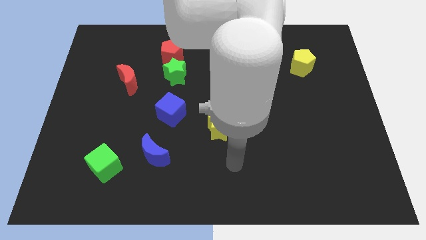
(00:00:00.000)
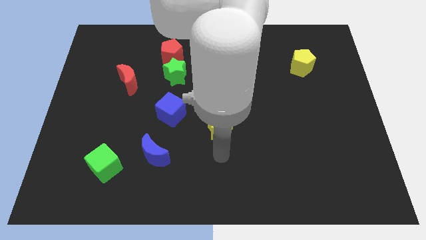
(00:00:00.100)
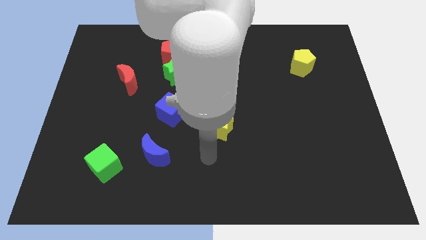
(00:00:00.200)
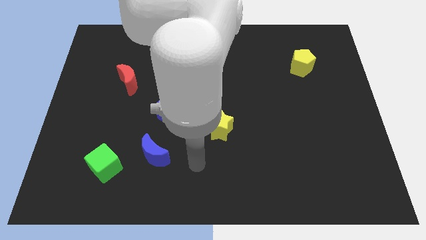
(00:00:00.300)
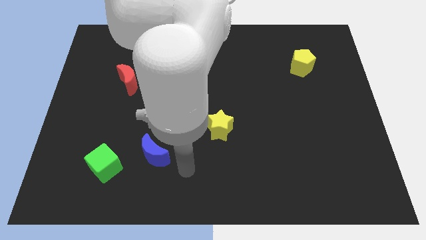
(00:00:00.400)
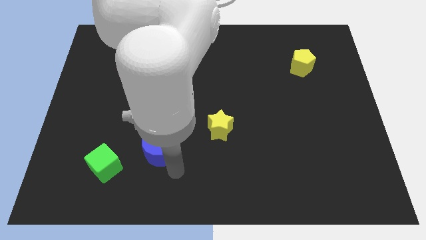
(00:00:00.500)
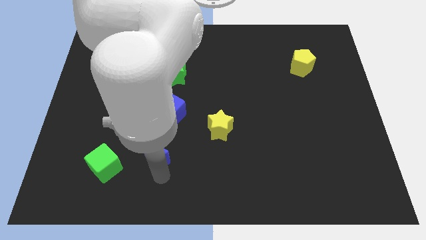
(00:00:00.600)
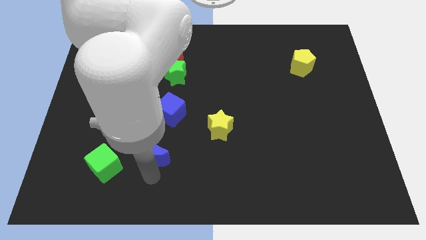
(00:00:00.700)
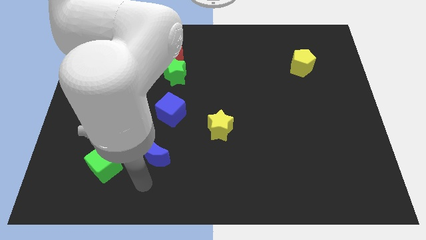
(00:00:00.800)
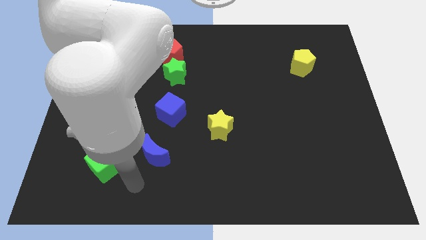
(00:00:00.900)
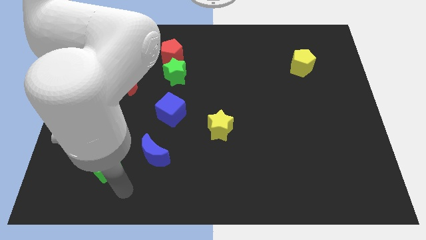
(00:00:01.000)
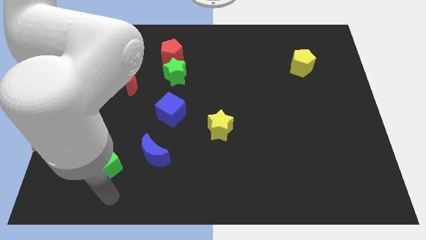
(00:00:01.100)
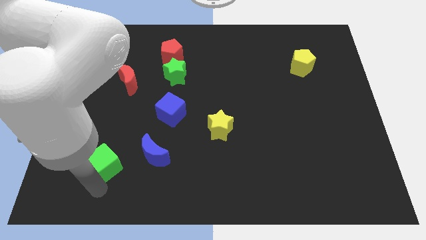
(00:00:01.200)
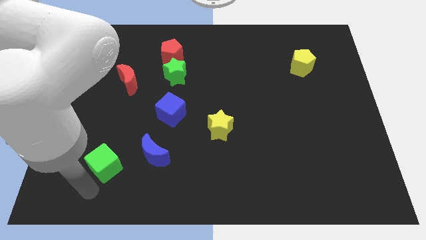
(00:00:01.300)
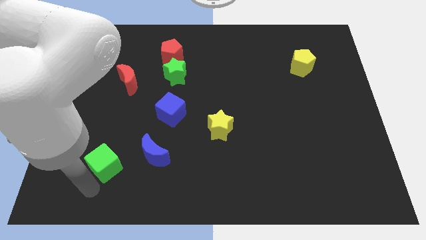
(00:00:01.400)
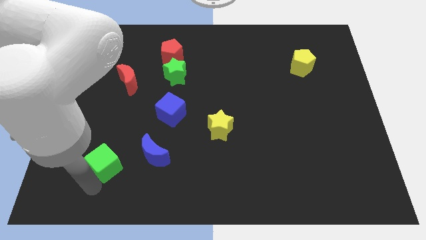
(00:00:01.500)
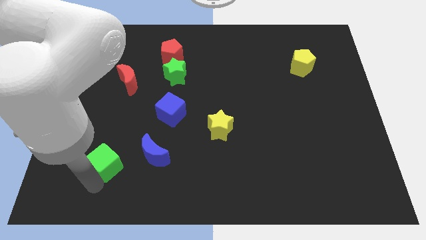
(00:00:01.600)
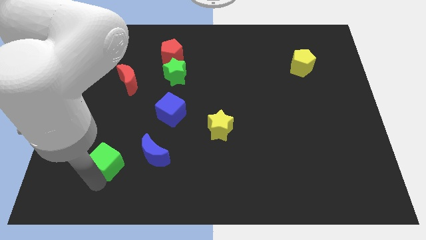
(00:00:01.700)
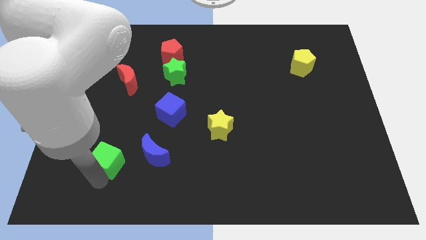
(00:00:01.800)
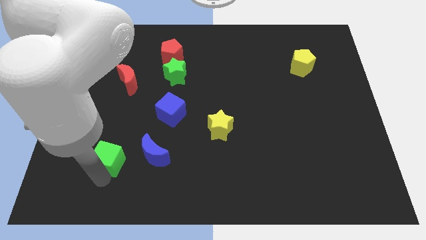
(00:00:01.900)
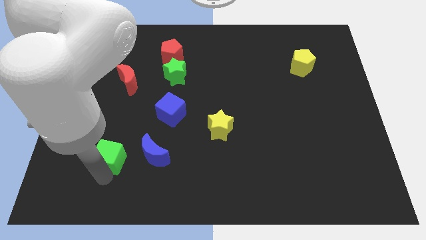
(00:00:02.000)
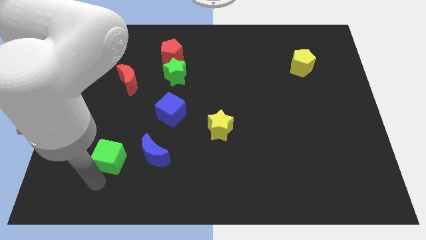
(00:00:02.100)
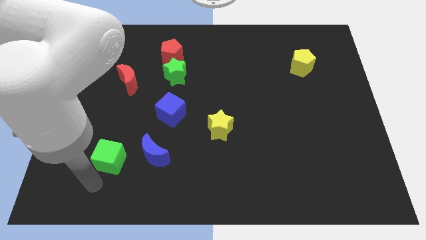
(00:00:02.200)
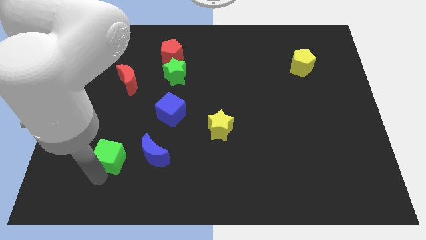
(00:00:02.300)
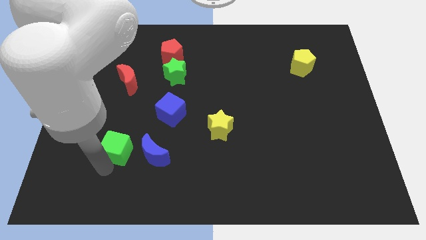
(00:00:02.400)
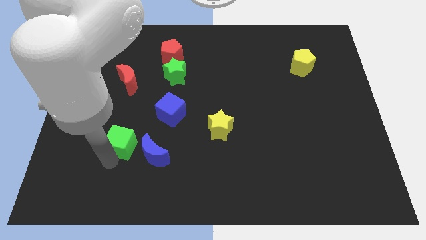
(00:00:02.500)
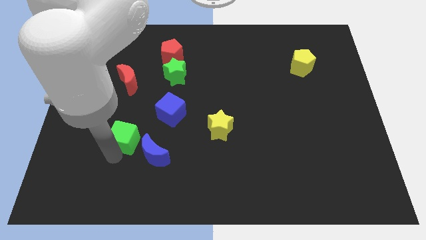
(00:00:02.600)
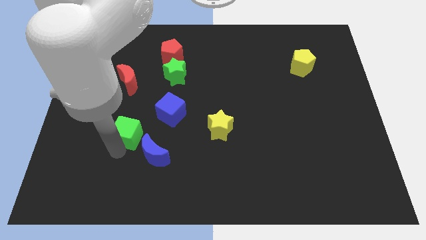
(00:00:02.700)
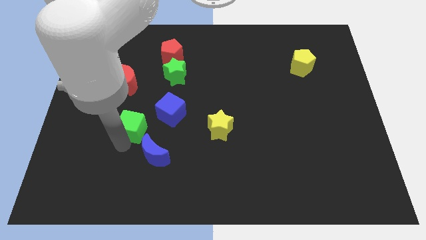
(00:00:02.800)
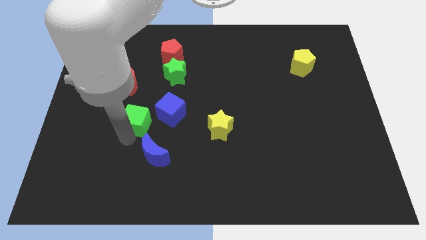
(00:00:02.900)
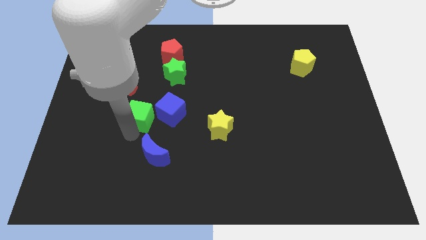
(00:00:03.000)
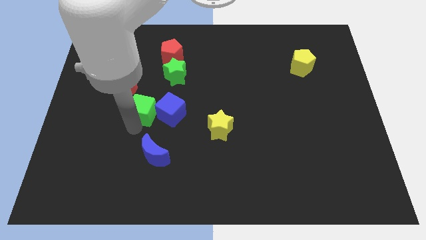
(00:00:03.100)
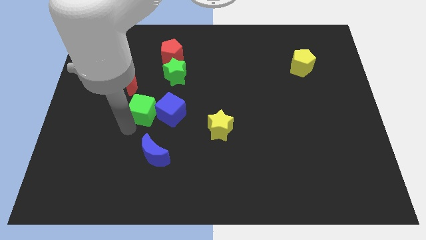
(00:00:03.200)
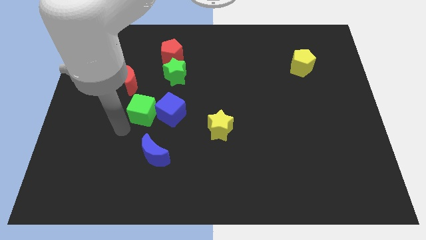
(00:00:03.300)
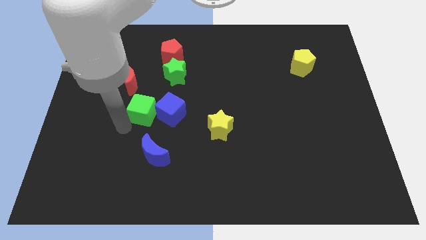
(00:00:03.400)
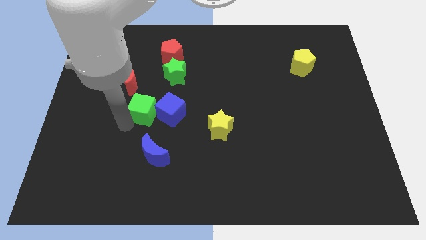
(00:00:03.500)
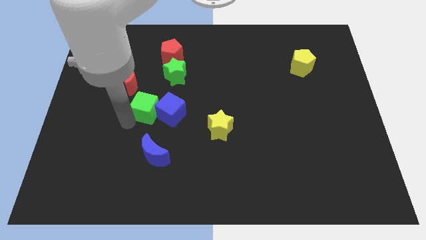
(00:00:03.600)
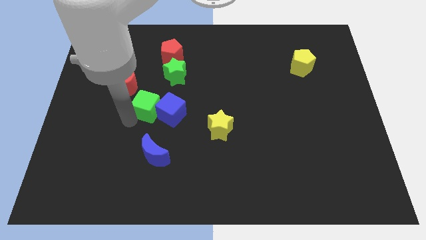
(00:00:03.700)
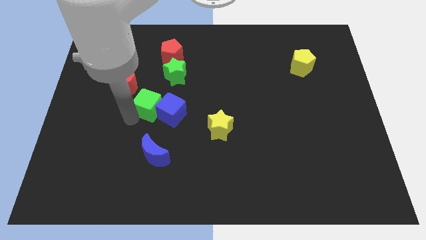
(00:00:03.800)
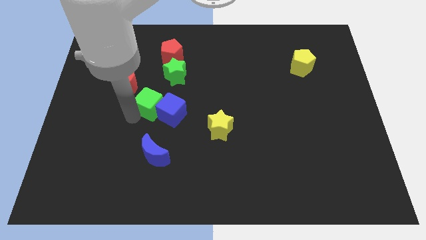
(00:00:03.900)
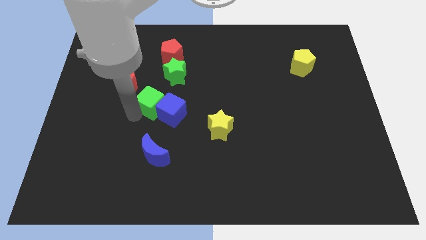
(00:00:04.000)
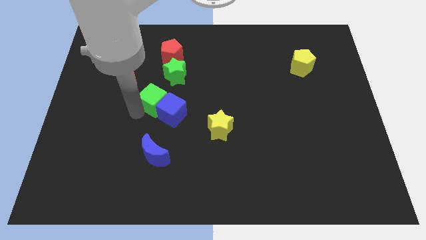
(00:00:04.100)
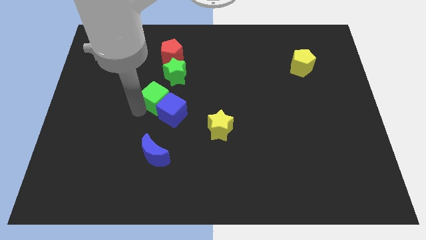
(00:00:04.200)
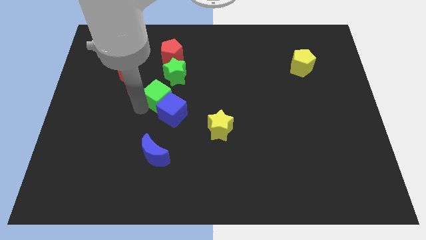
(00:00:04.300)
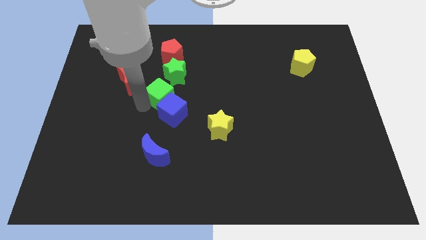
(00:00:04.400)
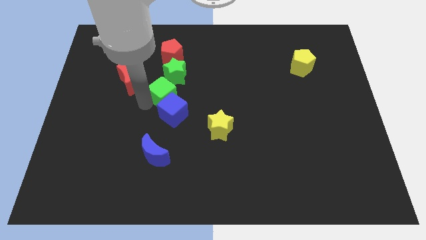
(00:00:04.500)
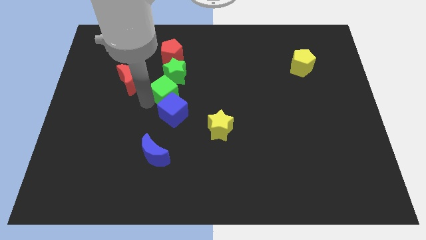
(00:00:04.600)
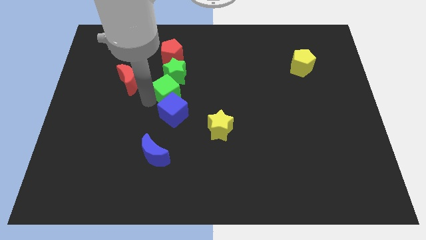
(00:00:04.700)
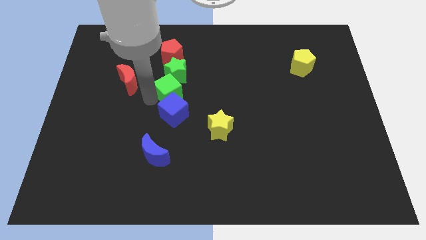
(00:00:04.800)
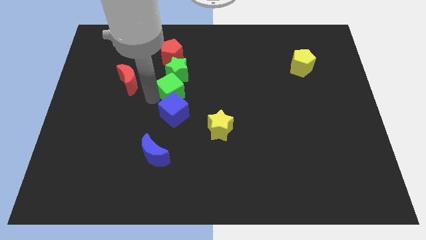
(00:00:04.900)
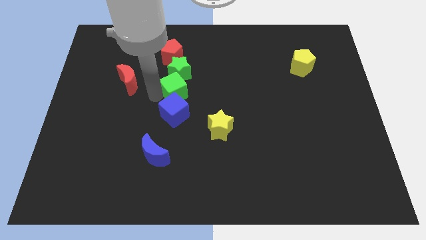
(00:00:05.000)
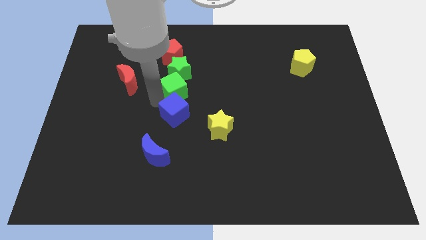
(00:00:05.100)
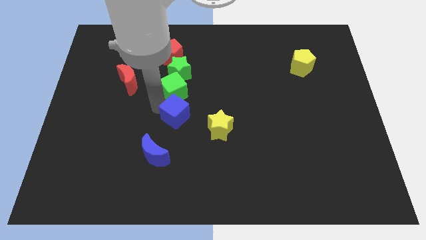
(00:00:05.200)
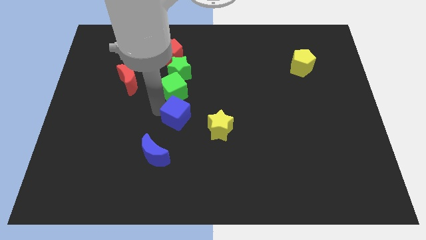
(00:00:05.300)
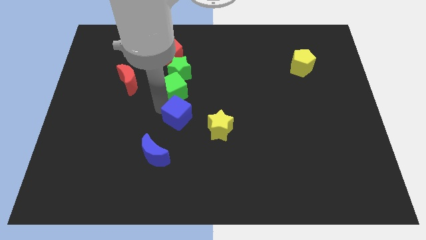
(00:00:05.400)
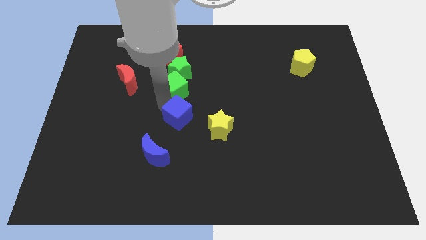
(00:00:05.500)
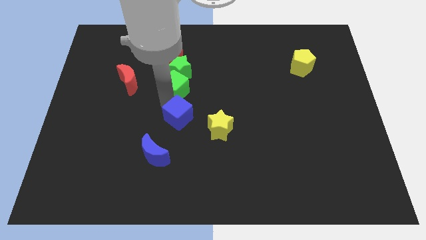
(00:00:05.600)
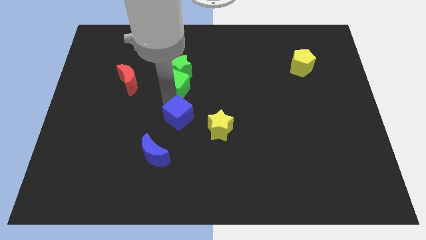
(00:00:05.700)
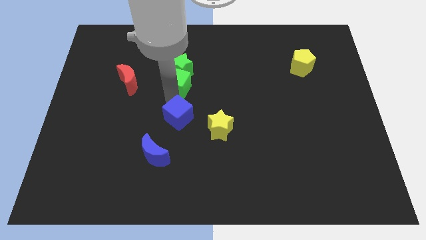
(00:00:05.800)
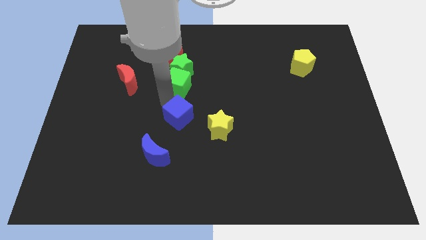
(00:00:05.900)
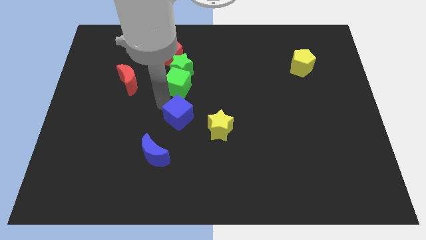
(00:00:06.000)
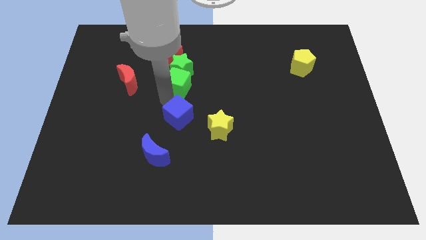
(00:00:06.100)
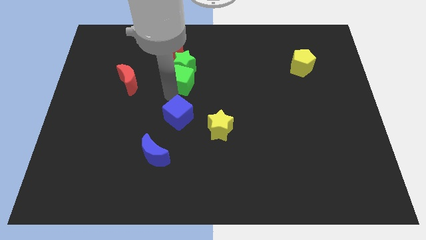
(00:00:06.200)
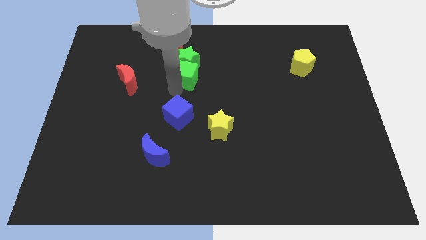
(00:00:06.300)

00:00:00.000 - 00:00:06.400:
put the green cube diagonally down and to the right of the red pentagon

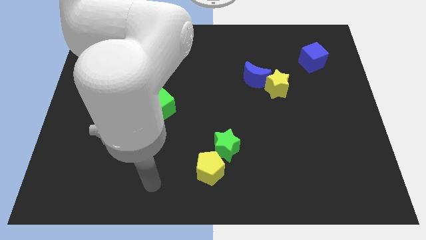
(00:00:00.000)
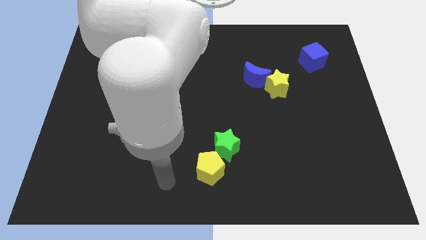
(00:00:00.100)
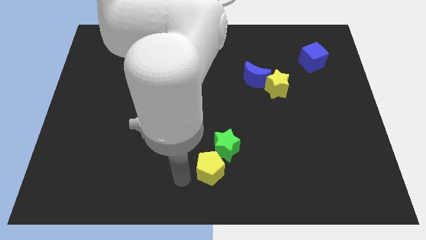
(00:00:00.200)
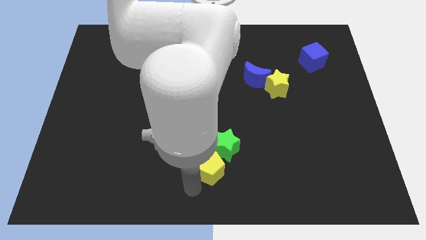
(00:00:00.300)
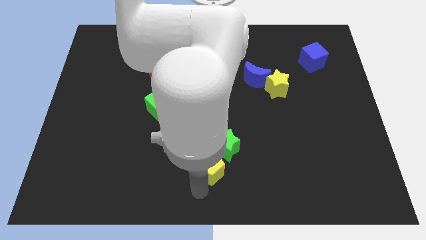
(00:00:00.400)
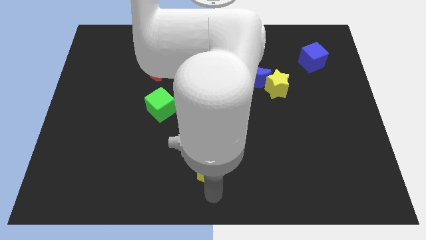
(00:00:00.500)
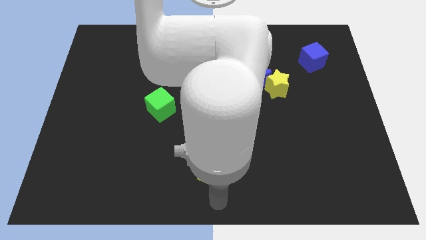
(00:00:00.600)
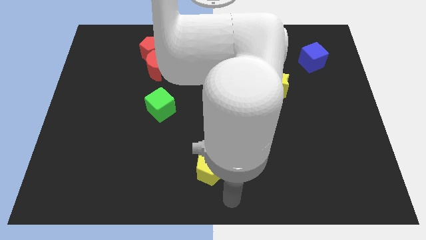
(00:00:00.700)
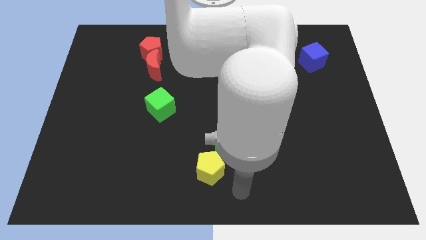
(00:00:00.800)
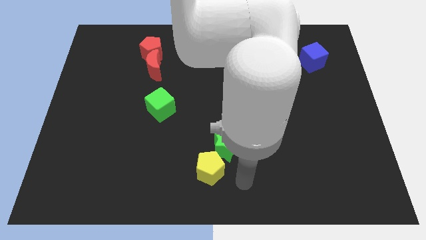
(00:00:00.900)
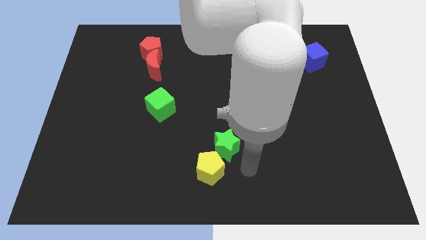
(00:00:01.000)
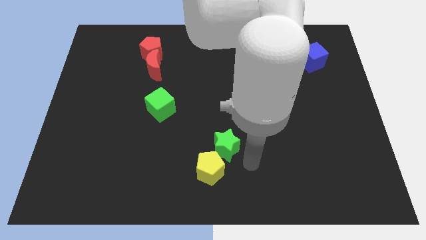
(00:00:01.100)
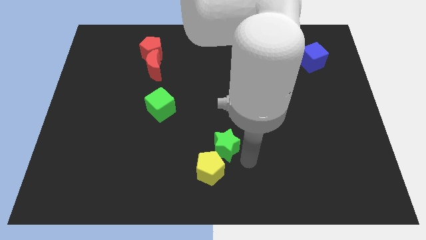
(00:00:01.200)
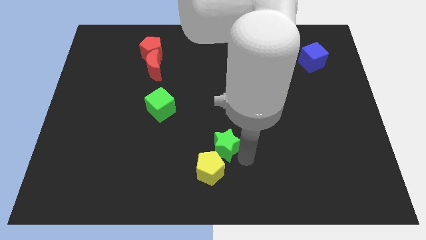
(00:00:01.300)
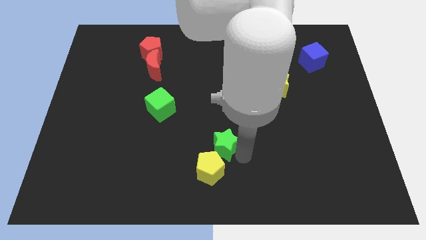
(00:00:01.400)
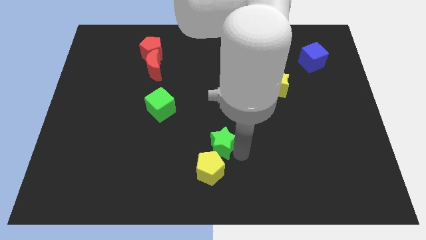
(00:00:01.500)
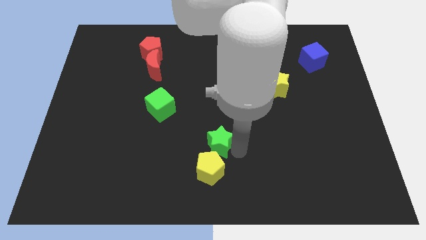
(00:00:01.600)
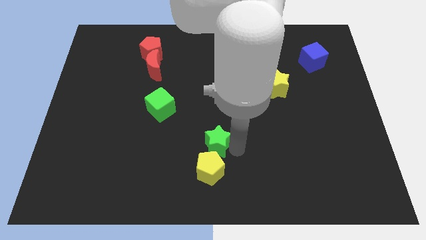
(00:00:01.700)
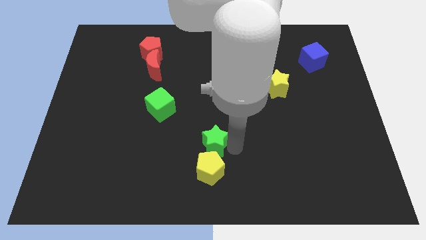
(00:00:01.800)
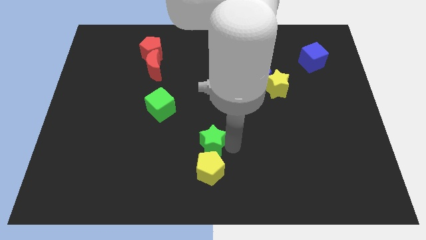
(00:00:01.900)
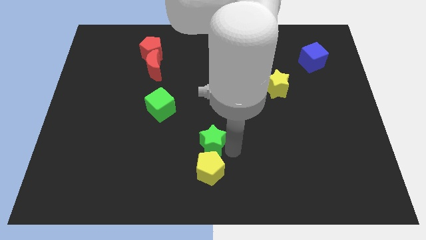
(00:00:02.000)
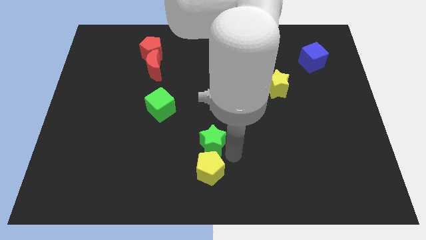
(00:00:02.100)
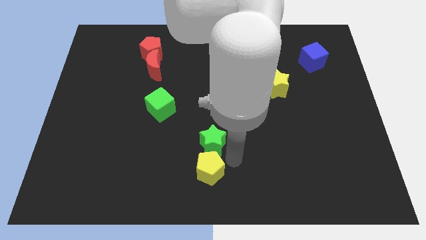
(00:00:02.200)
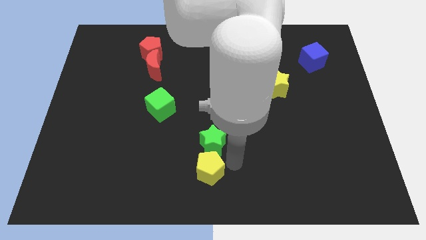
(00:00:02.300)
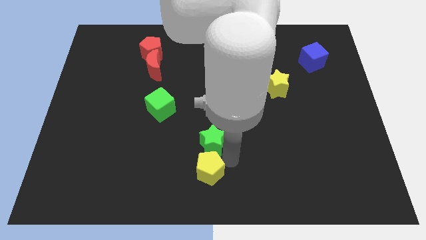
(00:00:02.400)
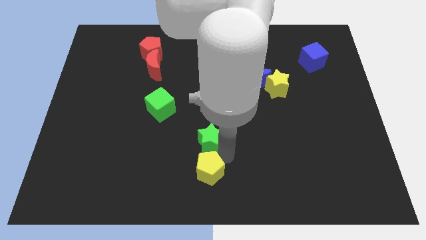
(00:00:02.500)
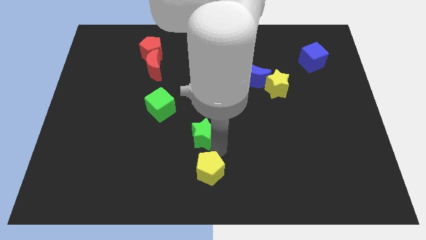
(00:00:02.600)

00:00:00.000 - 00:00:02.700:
put the green star diagonally down and to the right of the green cube
